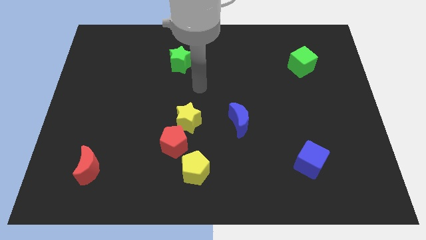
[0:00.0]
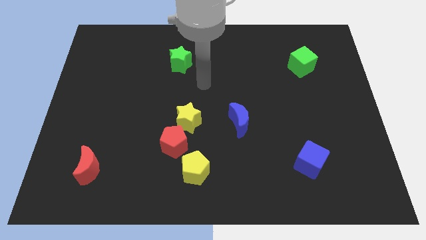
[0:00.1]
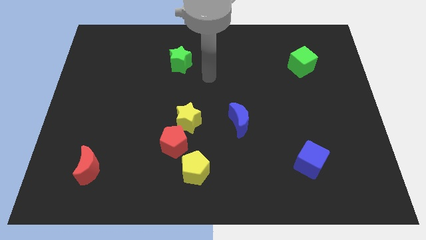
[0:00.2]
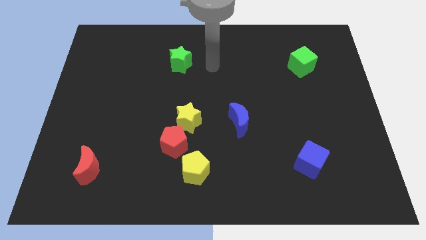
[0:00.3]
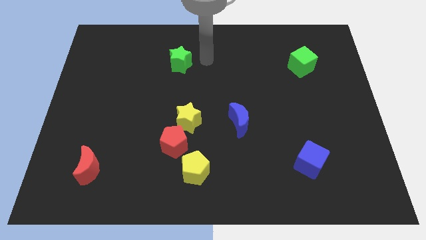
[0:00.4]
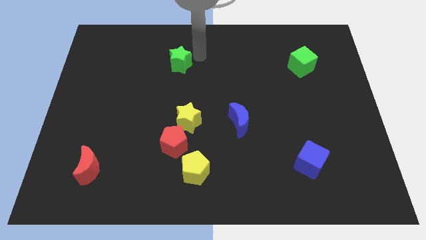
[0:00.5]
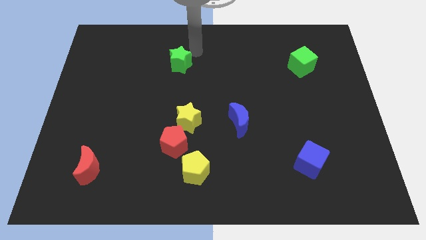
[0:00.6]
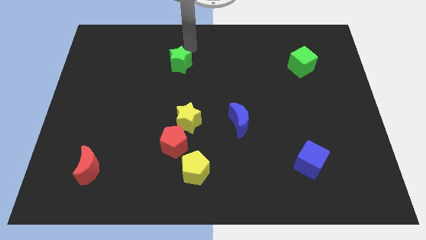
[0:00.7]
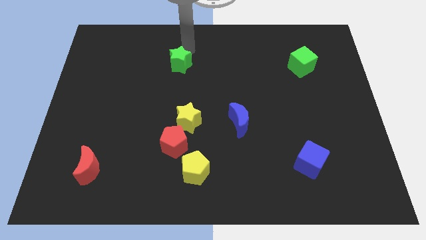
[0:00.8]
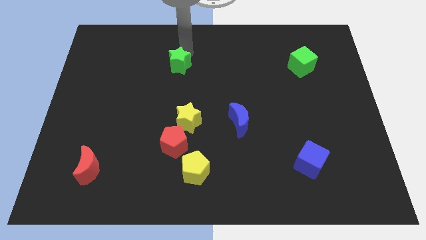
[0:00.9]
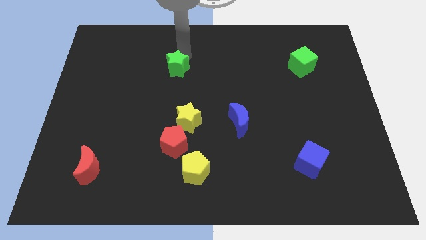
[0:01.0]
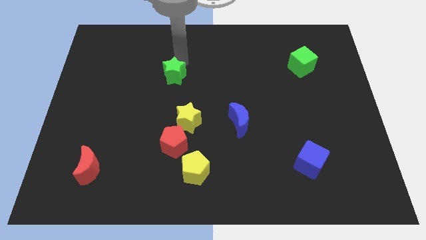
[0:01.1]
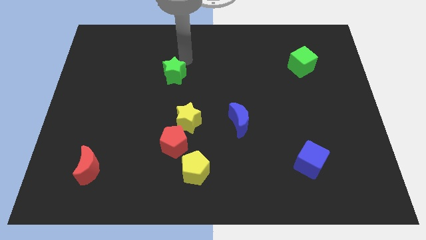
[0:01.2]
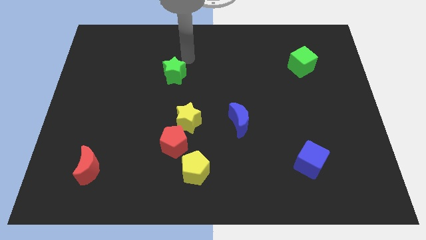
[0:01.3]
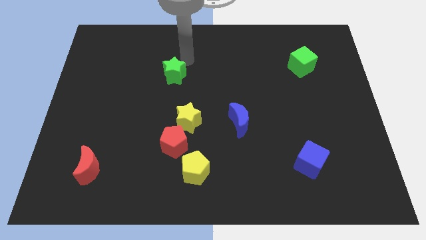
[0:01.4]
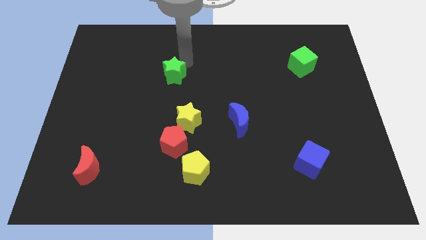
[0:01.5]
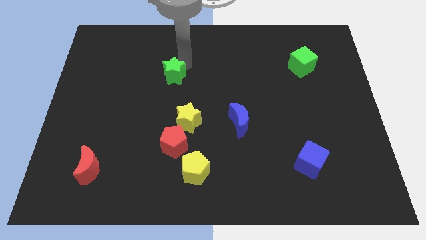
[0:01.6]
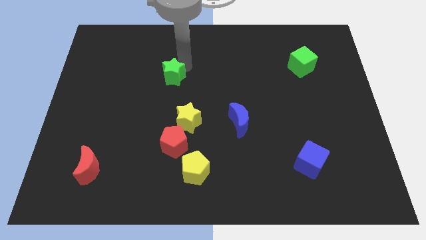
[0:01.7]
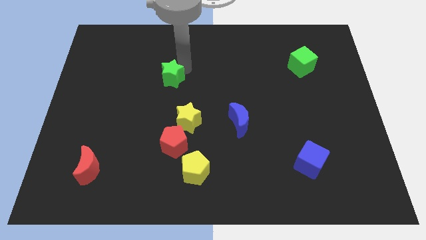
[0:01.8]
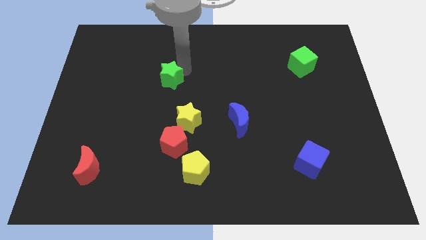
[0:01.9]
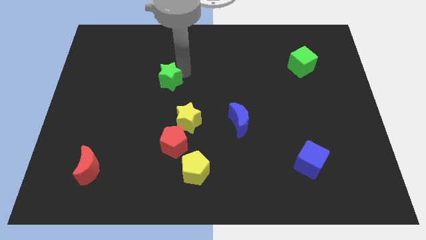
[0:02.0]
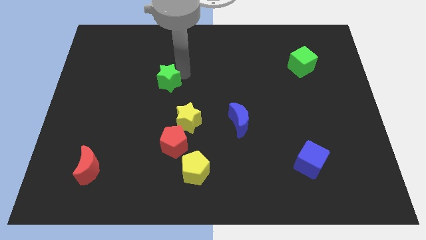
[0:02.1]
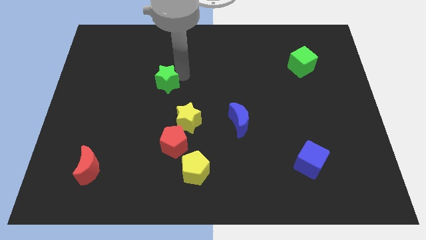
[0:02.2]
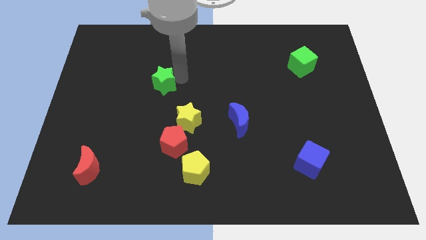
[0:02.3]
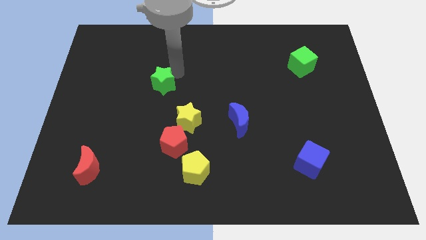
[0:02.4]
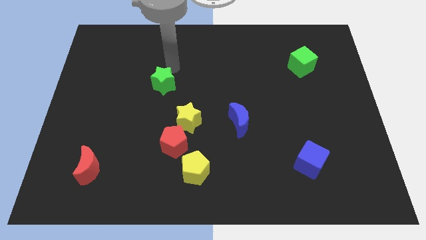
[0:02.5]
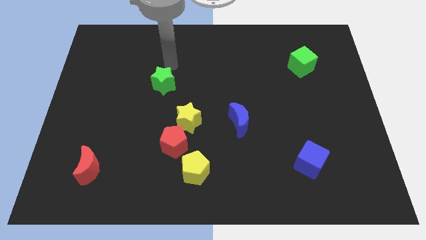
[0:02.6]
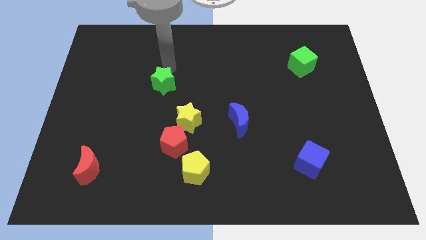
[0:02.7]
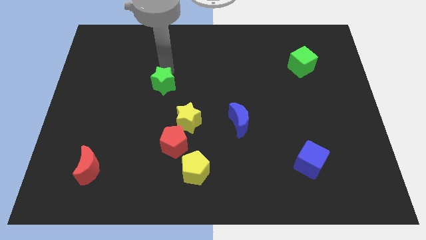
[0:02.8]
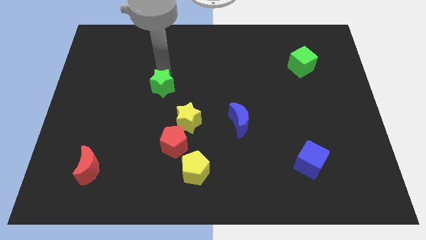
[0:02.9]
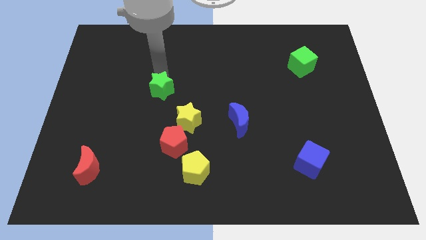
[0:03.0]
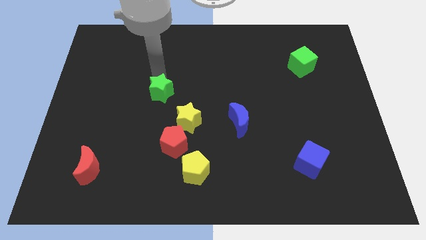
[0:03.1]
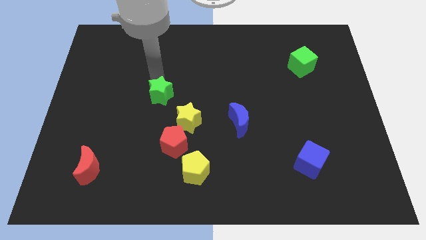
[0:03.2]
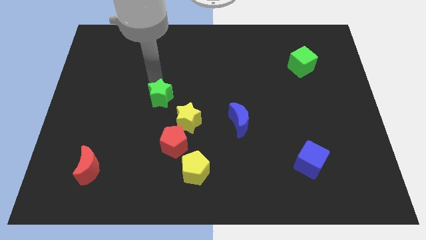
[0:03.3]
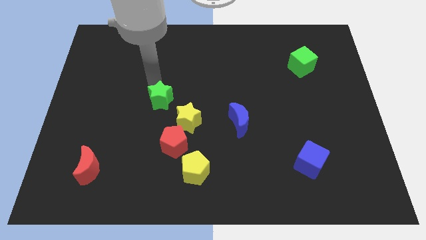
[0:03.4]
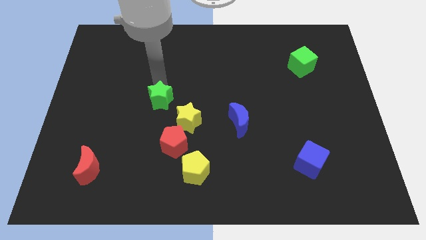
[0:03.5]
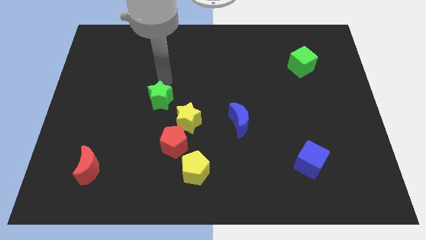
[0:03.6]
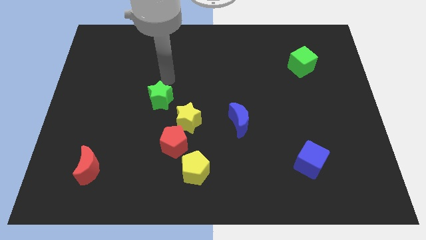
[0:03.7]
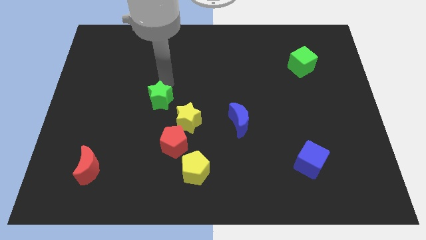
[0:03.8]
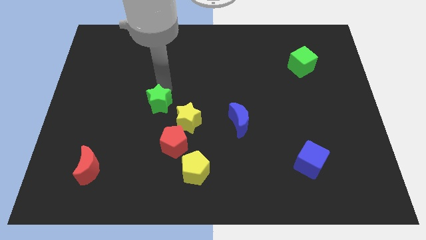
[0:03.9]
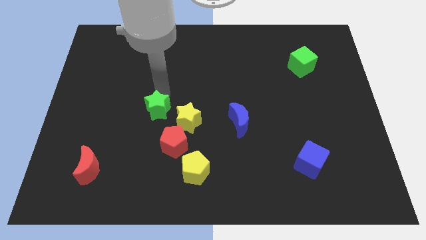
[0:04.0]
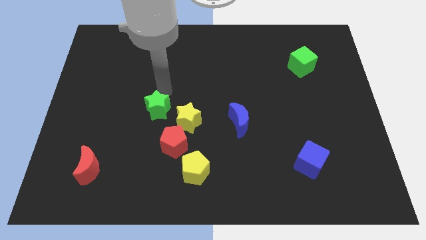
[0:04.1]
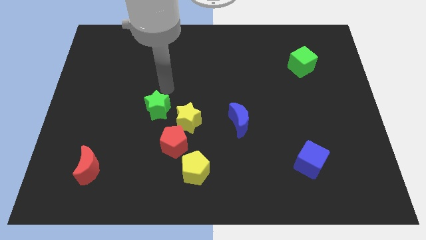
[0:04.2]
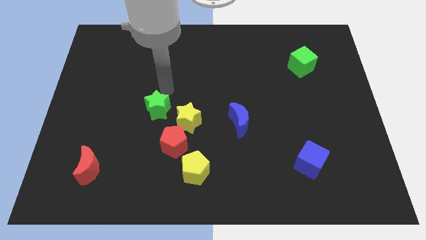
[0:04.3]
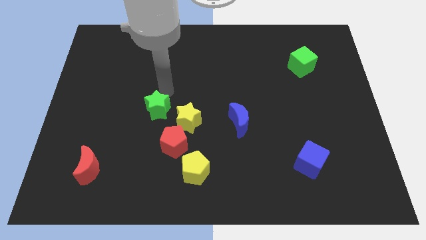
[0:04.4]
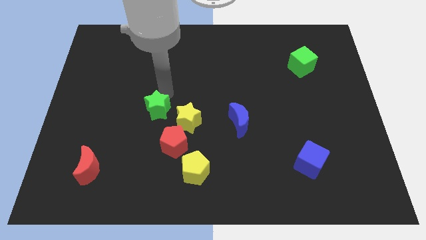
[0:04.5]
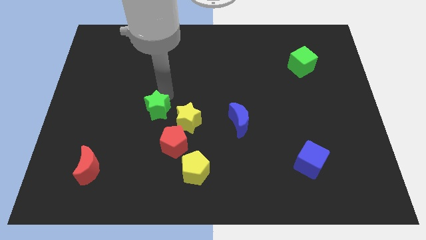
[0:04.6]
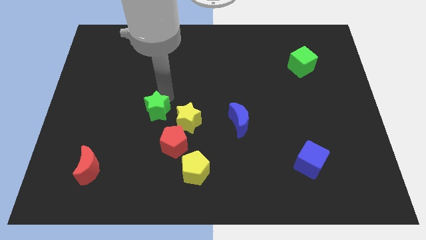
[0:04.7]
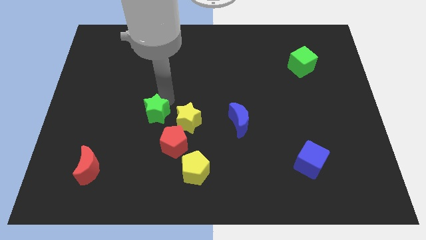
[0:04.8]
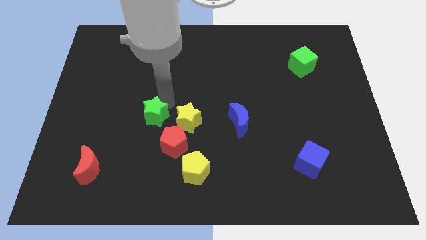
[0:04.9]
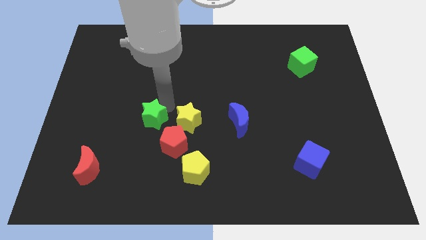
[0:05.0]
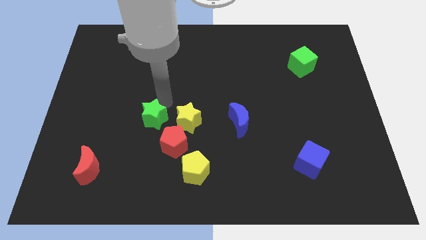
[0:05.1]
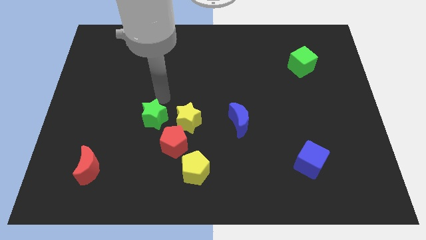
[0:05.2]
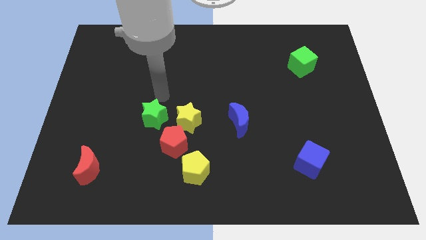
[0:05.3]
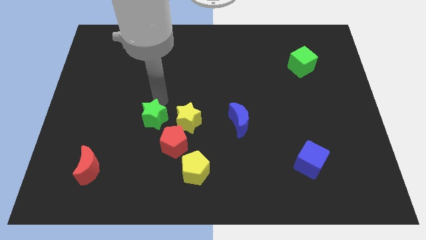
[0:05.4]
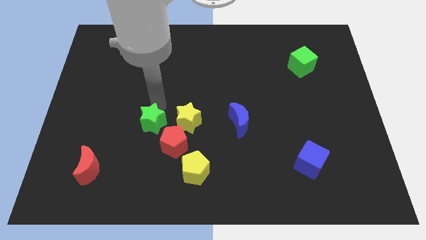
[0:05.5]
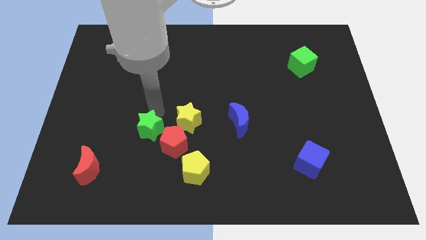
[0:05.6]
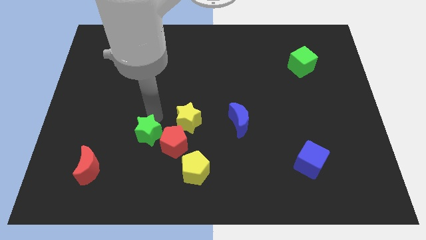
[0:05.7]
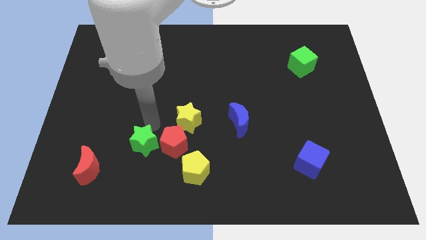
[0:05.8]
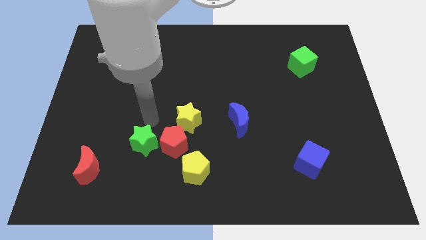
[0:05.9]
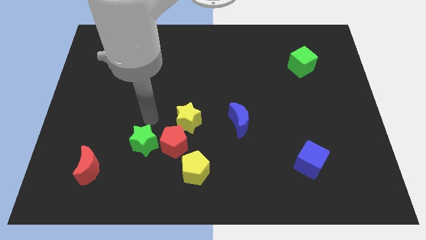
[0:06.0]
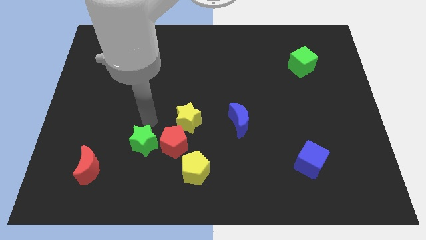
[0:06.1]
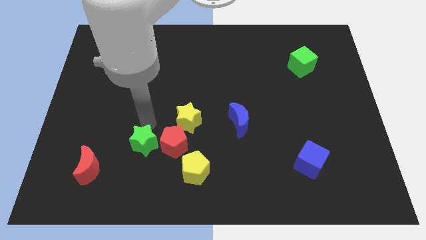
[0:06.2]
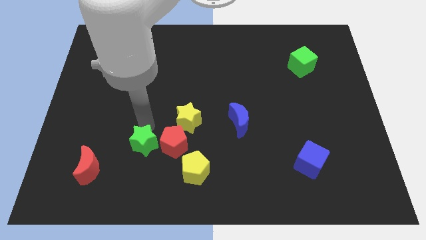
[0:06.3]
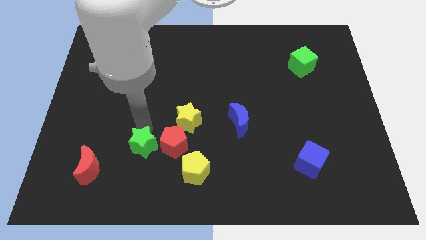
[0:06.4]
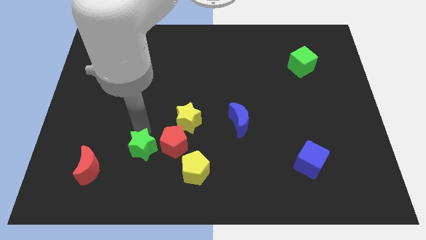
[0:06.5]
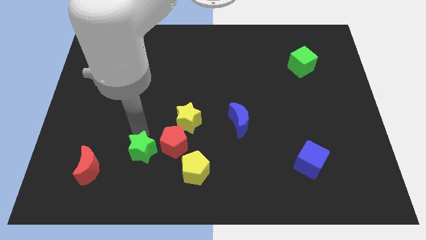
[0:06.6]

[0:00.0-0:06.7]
push the green star right of the red moon

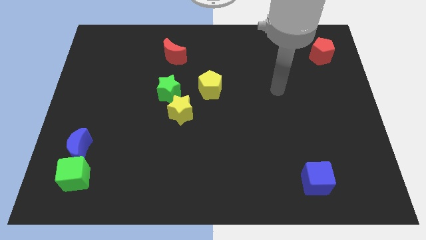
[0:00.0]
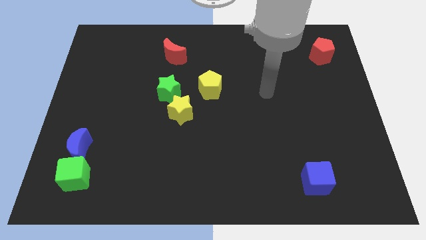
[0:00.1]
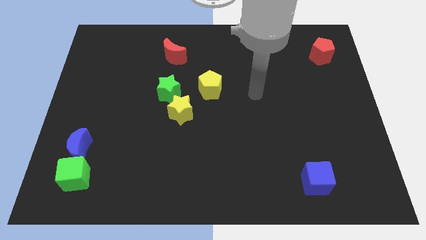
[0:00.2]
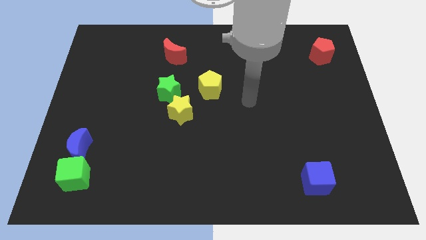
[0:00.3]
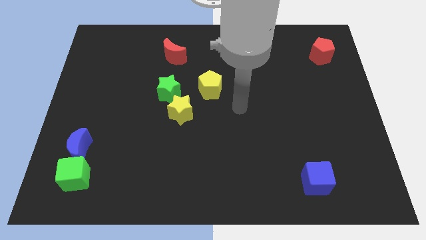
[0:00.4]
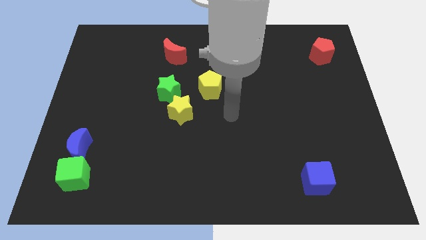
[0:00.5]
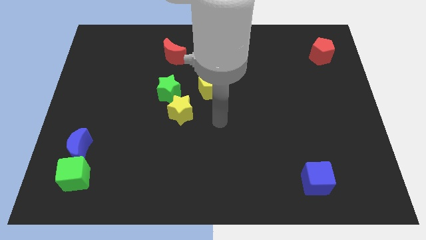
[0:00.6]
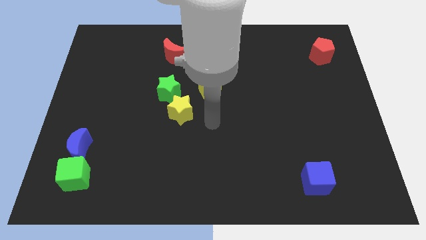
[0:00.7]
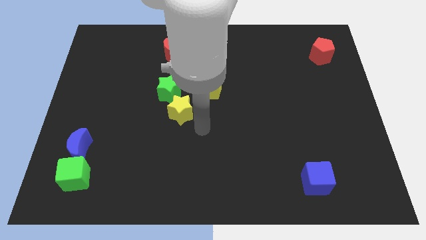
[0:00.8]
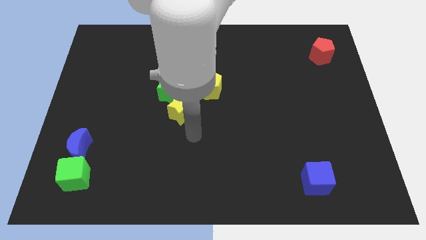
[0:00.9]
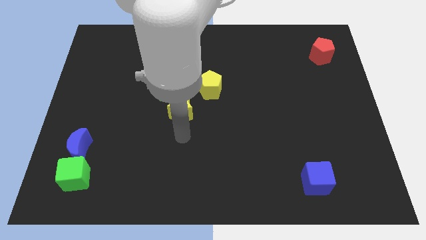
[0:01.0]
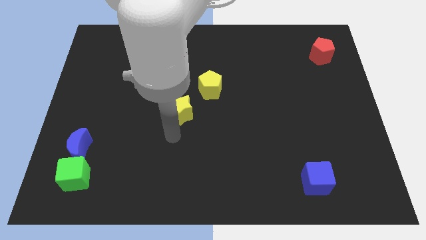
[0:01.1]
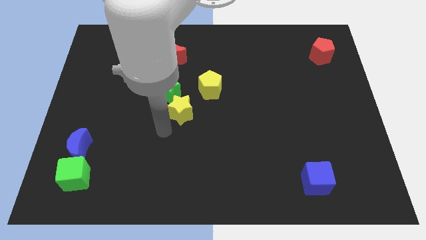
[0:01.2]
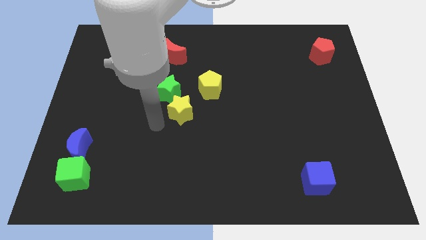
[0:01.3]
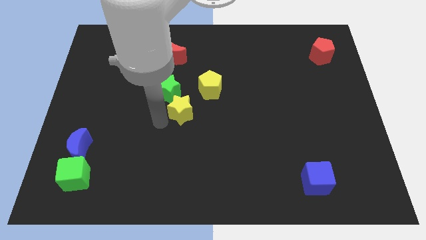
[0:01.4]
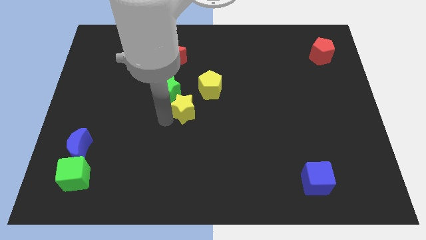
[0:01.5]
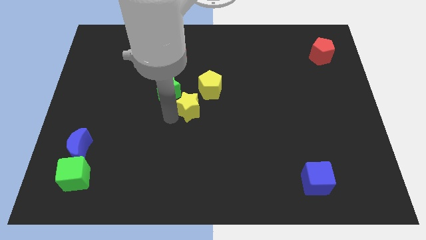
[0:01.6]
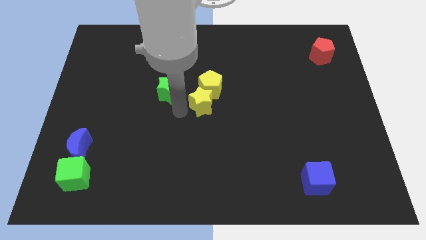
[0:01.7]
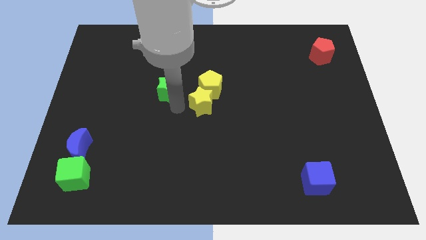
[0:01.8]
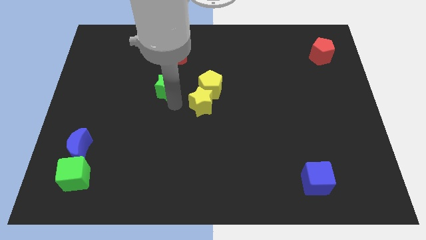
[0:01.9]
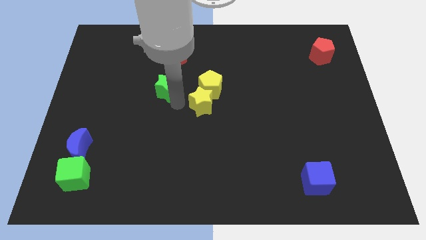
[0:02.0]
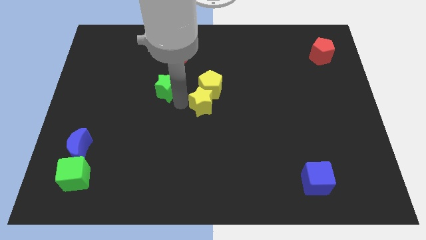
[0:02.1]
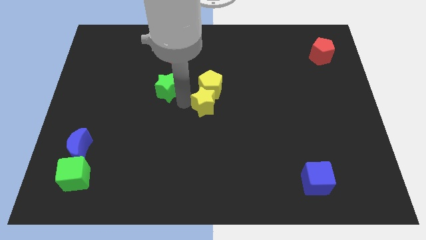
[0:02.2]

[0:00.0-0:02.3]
put the yellow star to the bottom right of the yellow pentagon

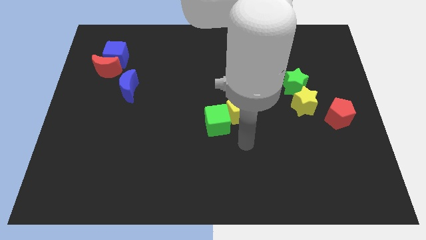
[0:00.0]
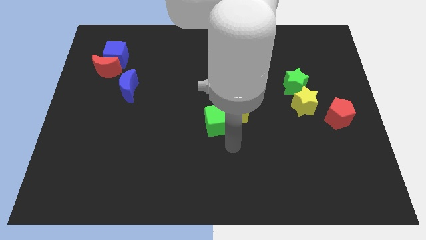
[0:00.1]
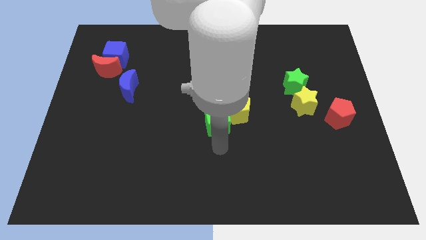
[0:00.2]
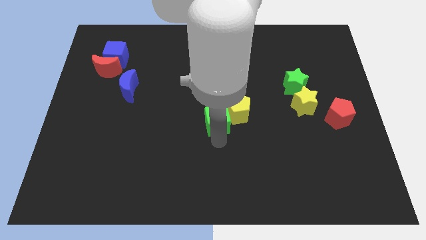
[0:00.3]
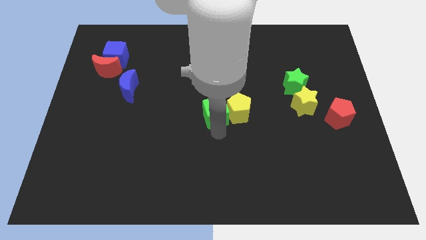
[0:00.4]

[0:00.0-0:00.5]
push the green cube diagonally up and to the left of the yellow pentagon
